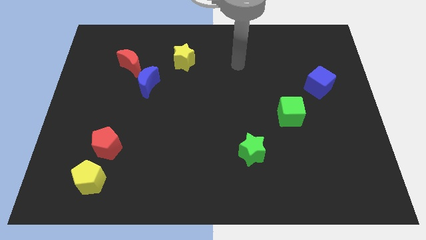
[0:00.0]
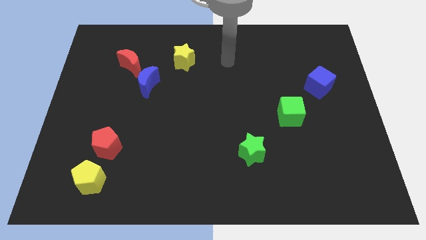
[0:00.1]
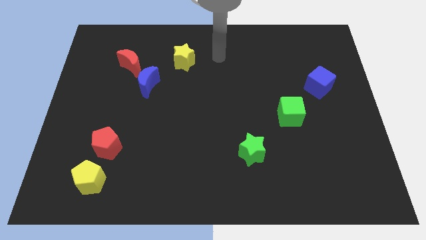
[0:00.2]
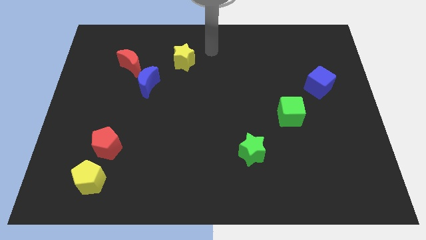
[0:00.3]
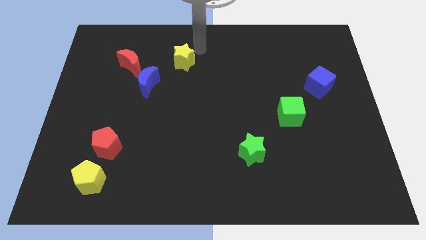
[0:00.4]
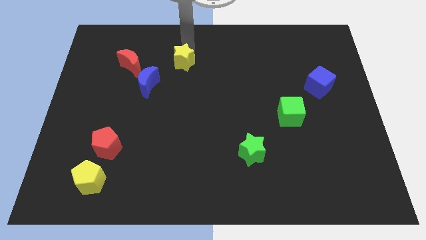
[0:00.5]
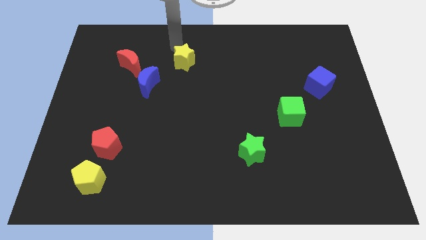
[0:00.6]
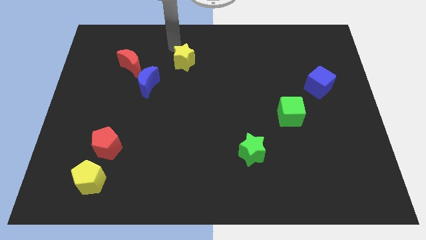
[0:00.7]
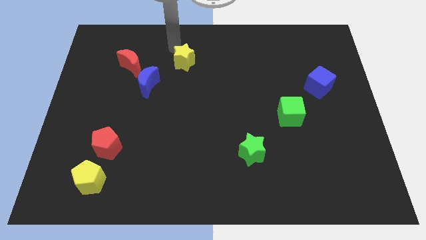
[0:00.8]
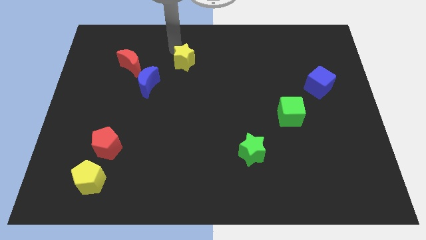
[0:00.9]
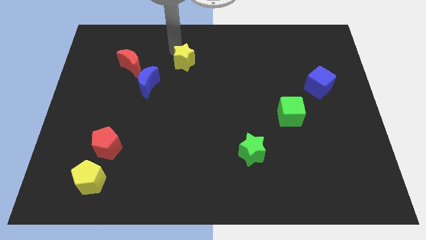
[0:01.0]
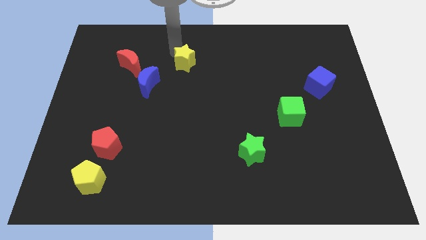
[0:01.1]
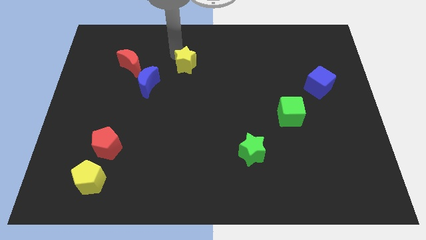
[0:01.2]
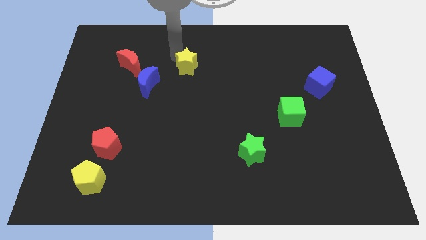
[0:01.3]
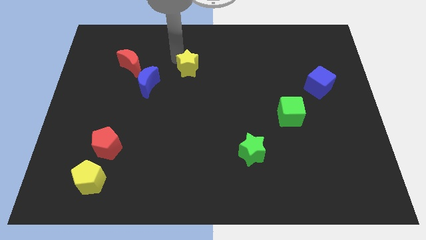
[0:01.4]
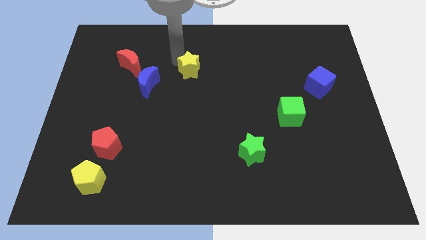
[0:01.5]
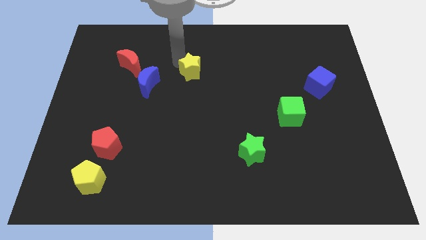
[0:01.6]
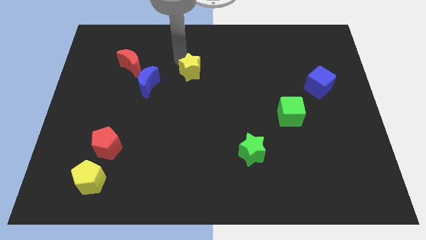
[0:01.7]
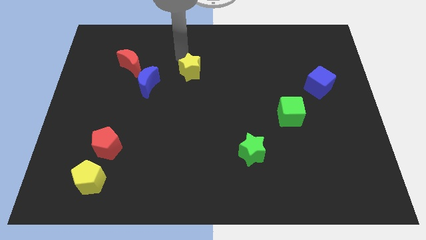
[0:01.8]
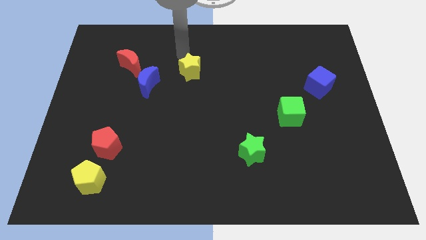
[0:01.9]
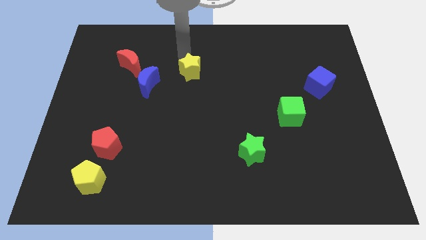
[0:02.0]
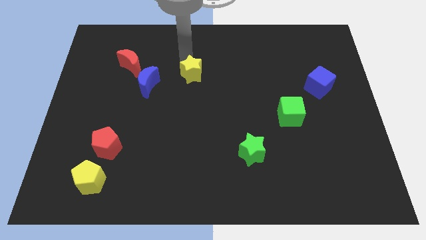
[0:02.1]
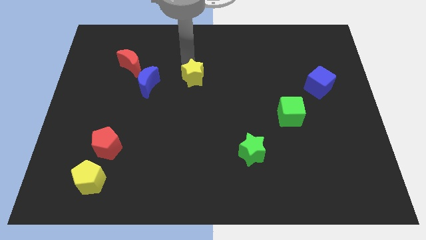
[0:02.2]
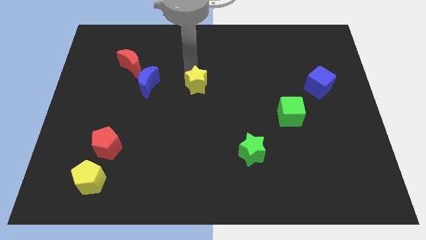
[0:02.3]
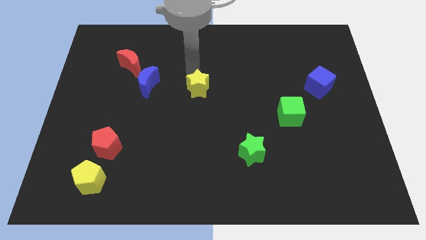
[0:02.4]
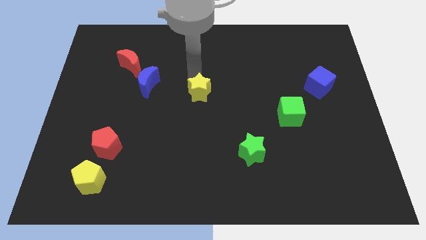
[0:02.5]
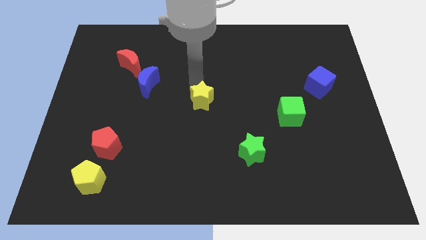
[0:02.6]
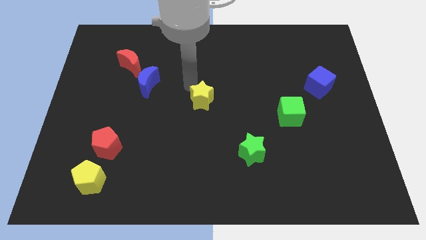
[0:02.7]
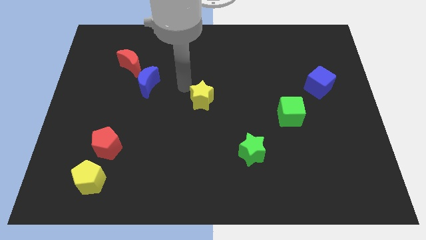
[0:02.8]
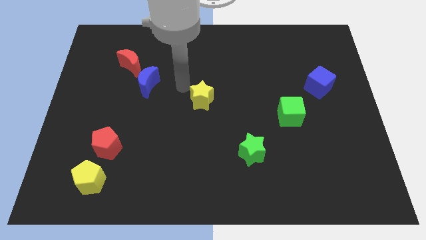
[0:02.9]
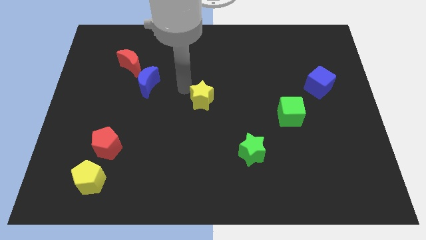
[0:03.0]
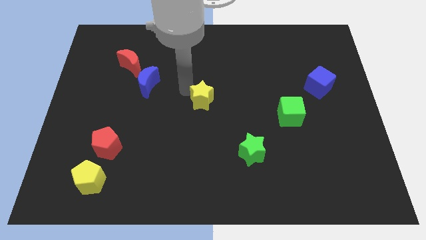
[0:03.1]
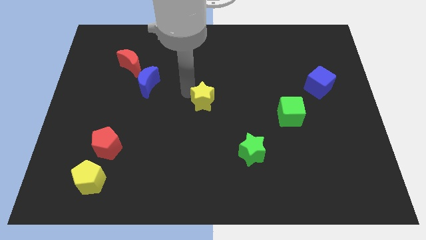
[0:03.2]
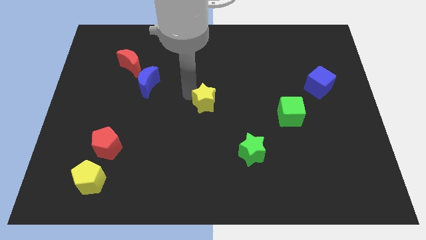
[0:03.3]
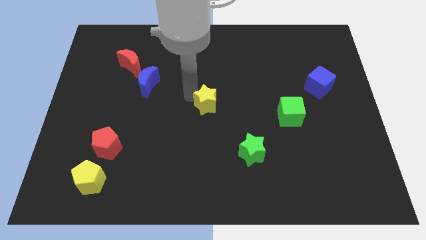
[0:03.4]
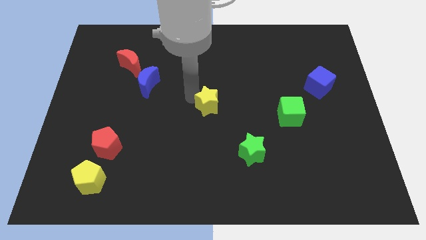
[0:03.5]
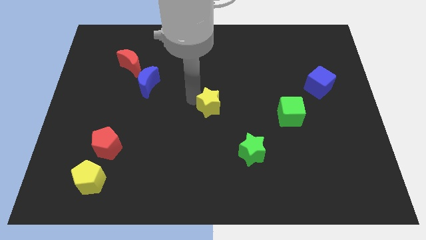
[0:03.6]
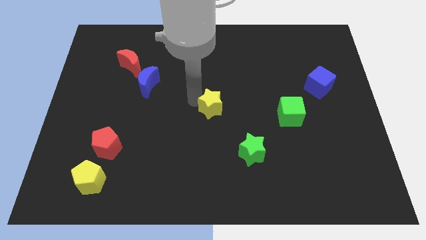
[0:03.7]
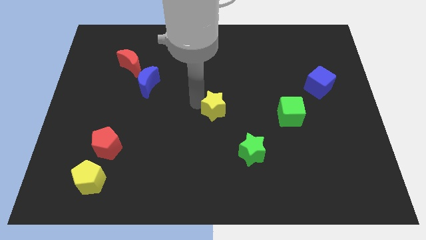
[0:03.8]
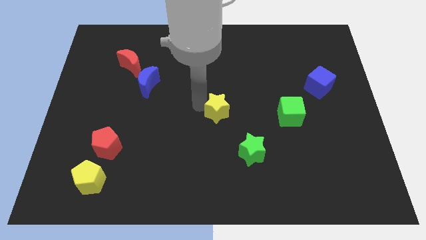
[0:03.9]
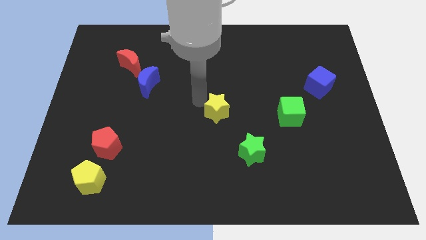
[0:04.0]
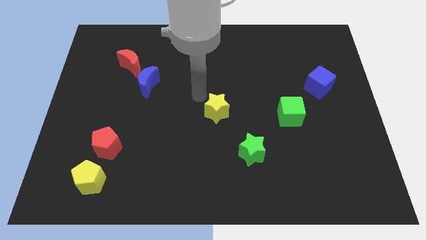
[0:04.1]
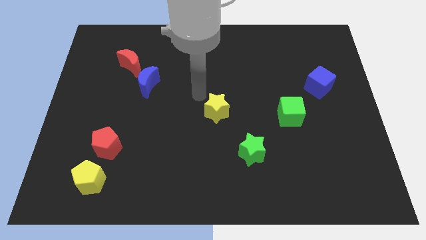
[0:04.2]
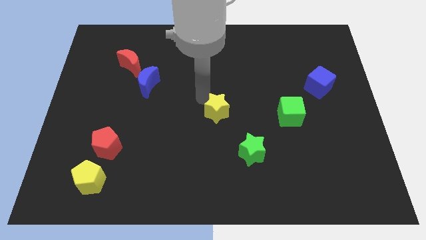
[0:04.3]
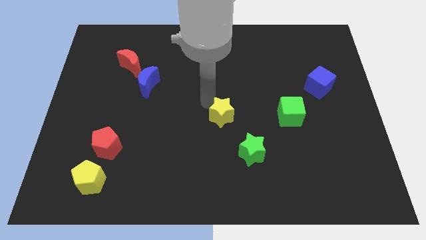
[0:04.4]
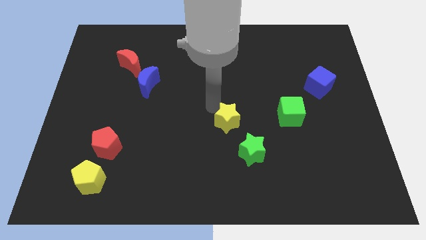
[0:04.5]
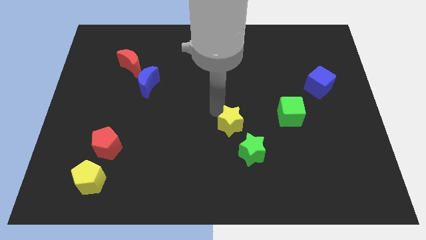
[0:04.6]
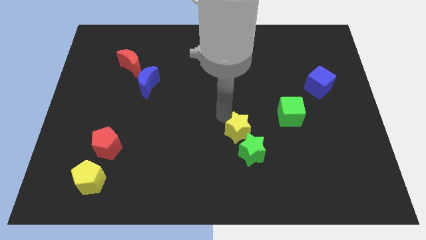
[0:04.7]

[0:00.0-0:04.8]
push the yellow star next to the green star

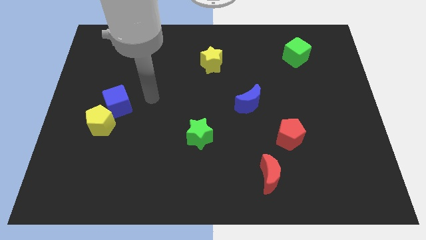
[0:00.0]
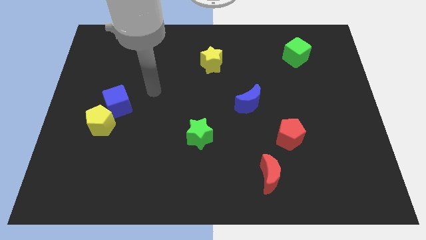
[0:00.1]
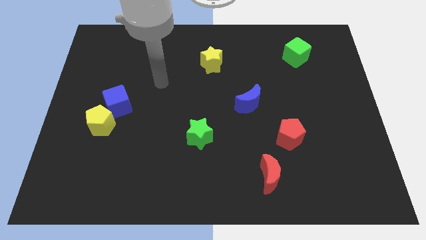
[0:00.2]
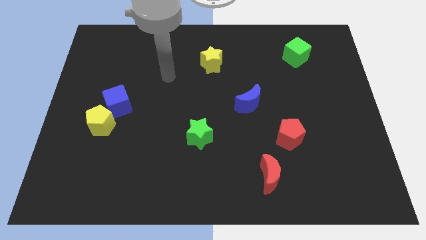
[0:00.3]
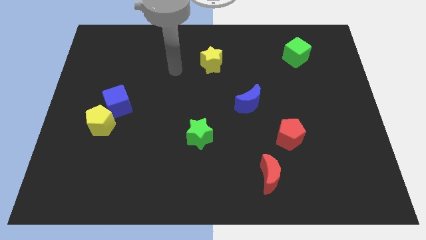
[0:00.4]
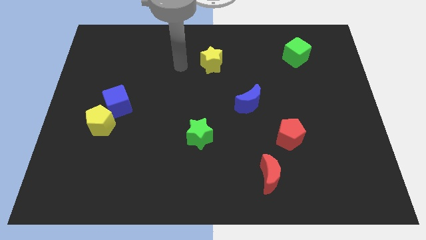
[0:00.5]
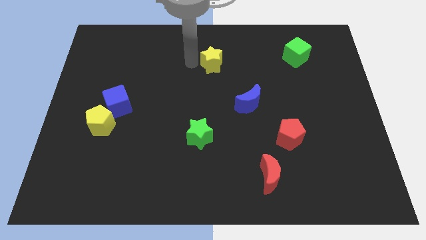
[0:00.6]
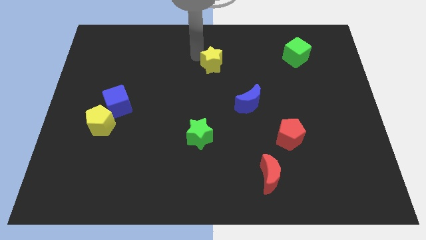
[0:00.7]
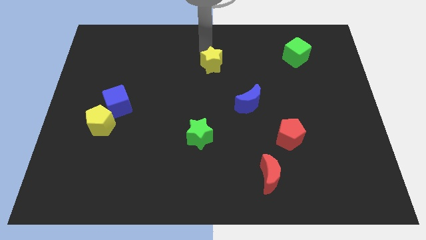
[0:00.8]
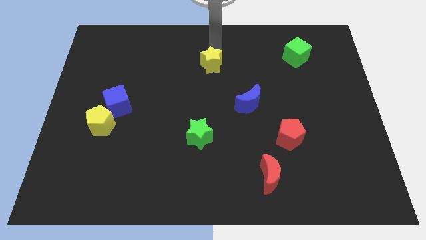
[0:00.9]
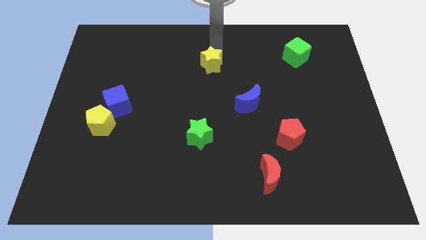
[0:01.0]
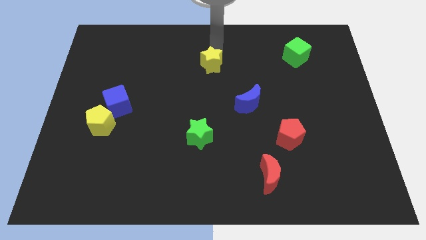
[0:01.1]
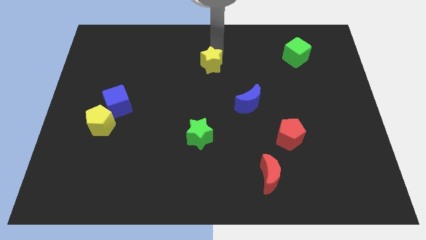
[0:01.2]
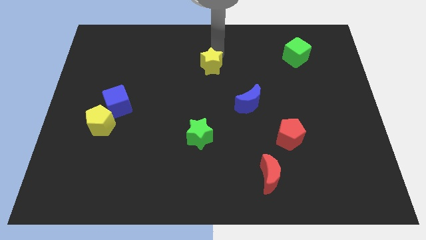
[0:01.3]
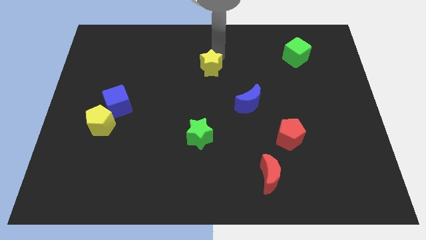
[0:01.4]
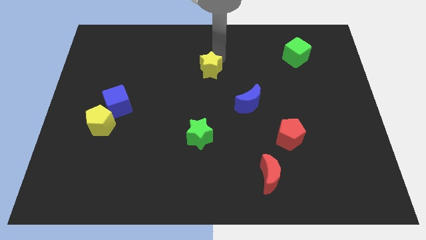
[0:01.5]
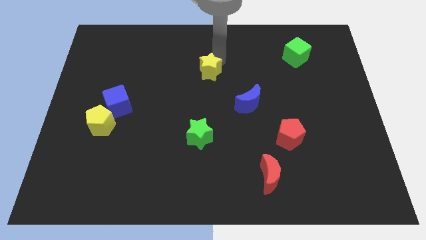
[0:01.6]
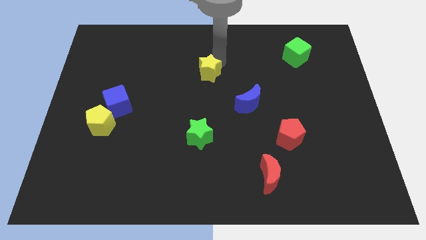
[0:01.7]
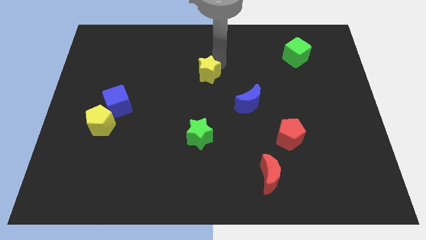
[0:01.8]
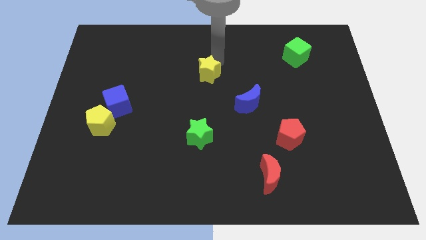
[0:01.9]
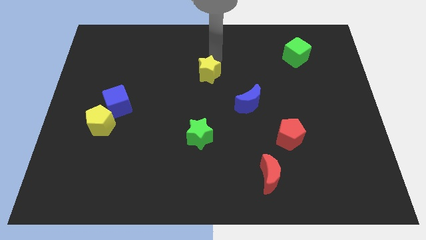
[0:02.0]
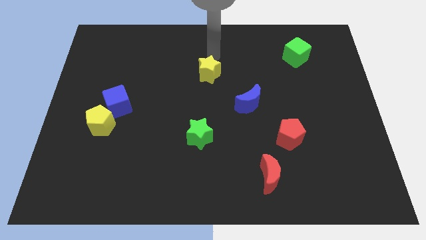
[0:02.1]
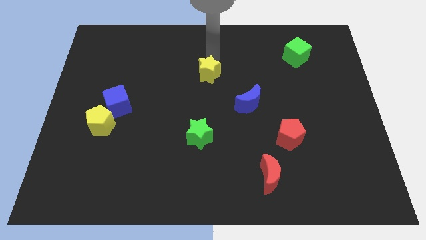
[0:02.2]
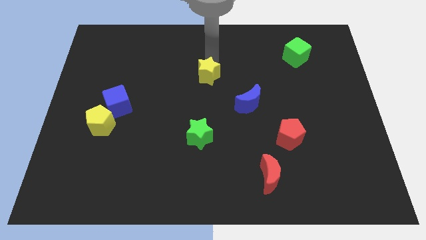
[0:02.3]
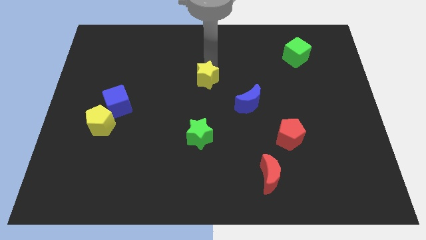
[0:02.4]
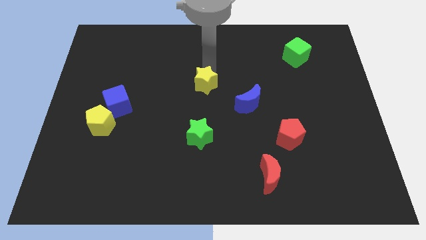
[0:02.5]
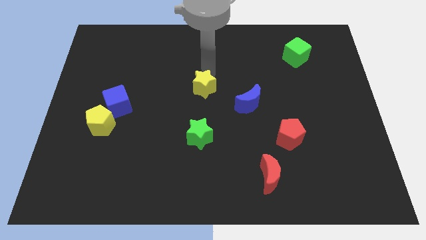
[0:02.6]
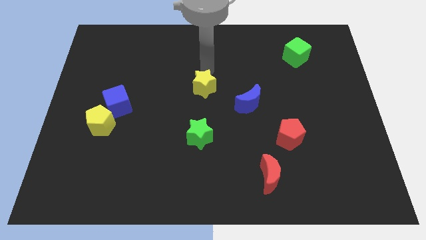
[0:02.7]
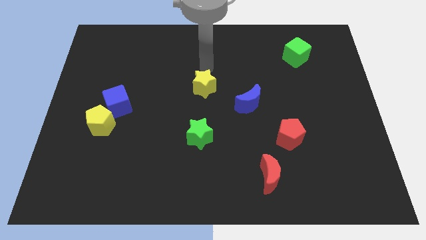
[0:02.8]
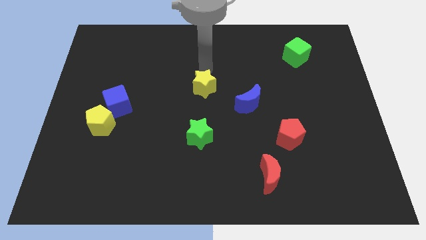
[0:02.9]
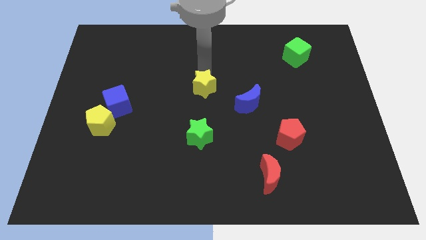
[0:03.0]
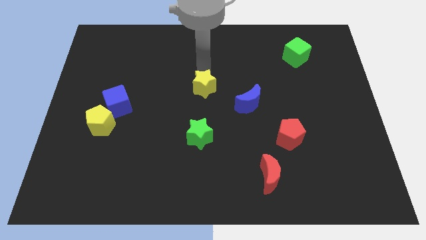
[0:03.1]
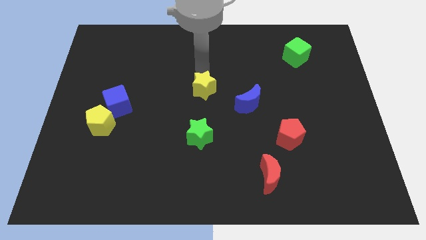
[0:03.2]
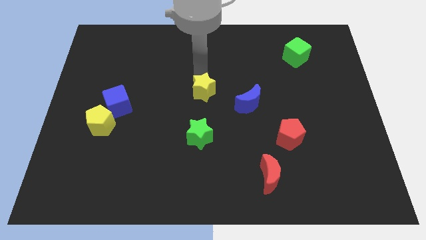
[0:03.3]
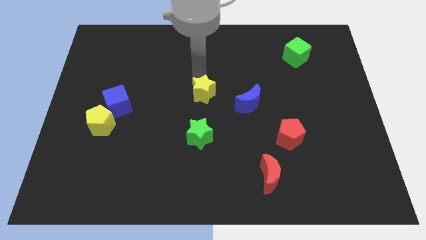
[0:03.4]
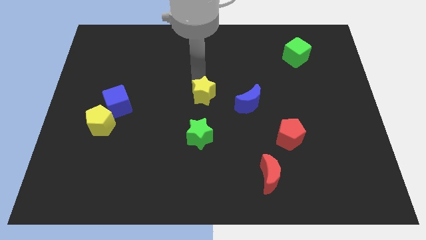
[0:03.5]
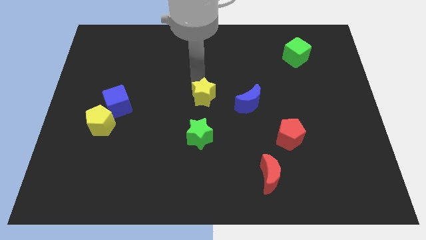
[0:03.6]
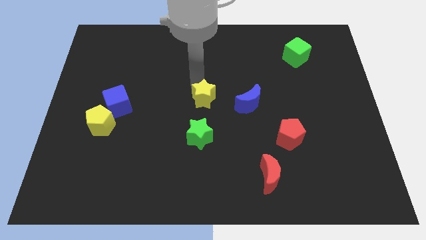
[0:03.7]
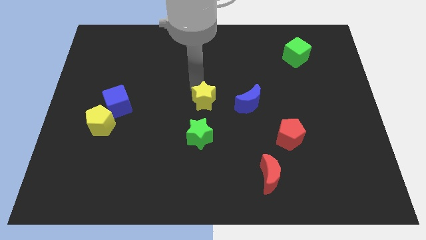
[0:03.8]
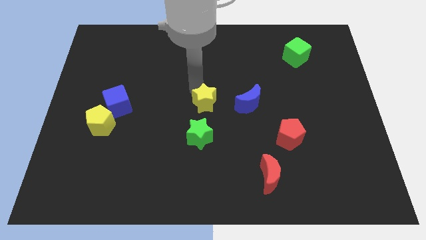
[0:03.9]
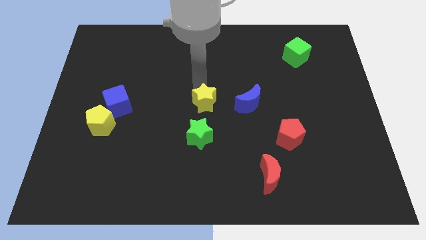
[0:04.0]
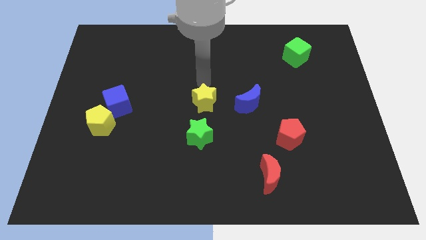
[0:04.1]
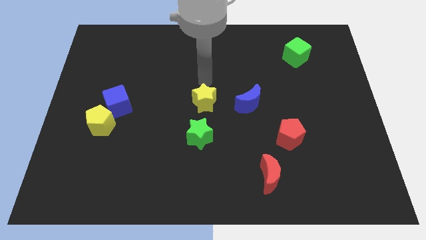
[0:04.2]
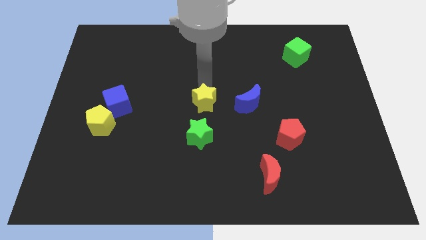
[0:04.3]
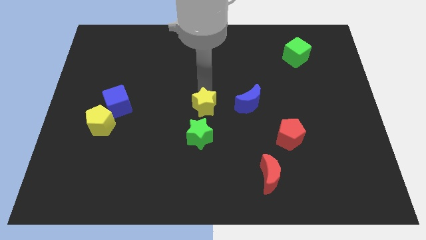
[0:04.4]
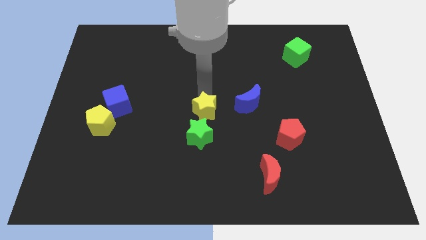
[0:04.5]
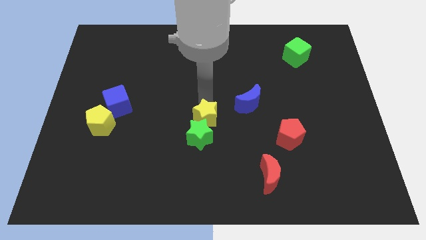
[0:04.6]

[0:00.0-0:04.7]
slide the yellow star to the green star
